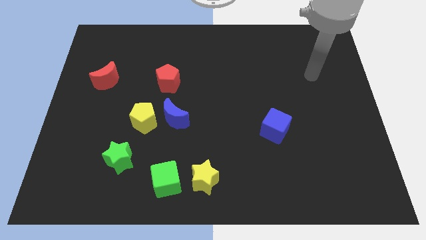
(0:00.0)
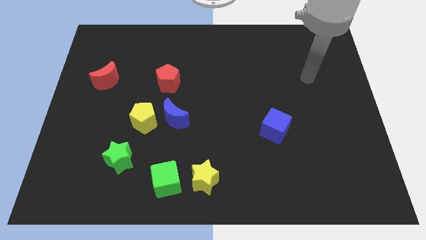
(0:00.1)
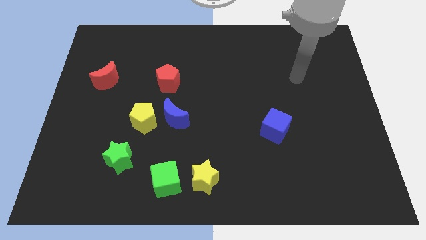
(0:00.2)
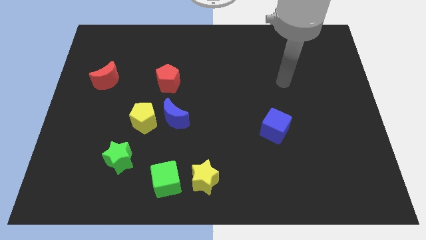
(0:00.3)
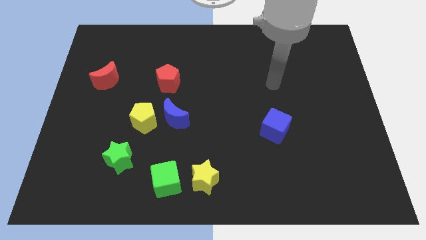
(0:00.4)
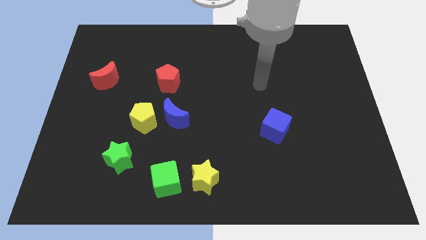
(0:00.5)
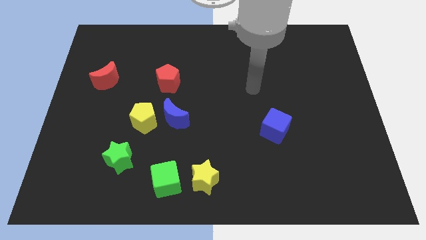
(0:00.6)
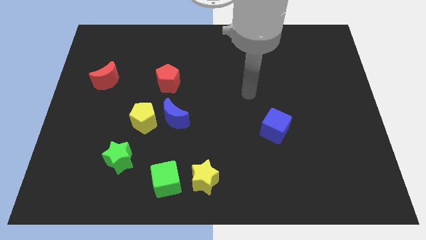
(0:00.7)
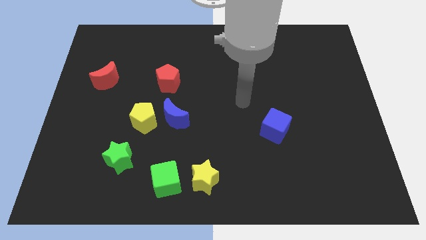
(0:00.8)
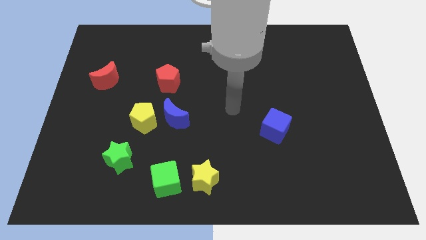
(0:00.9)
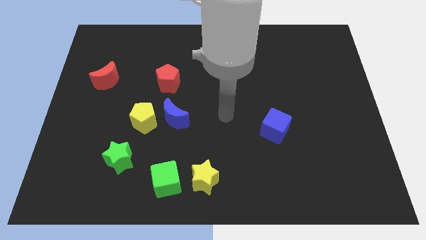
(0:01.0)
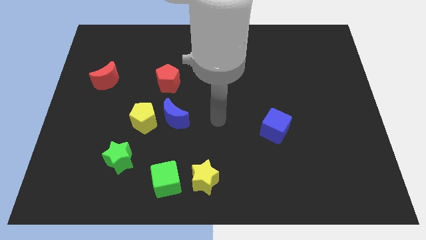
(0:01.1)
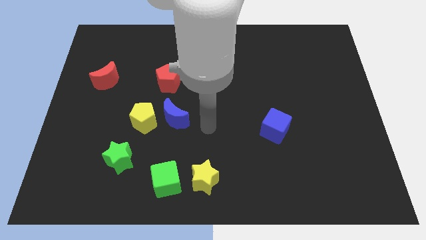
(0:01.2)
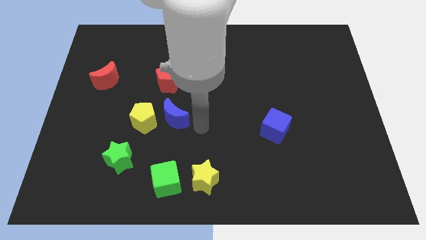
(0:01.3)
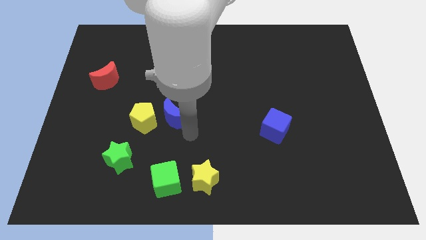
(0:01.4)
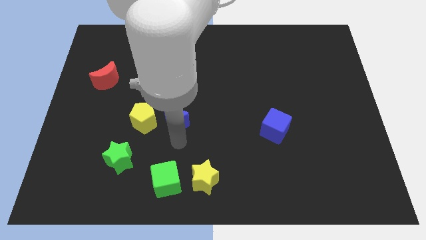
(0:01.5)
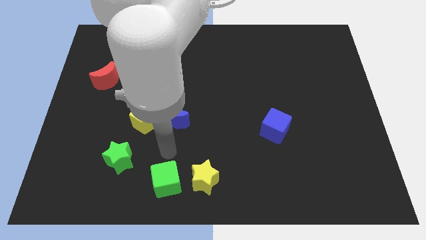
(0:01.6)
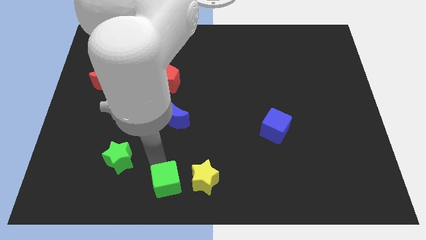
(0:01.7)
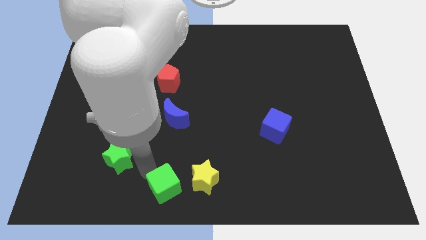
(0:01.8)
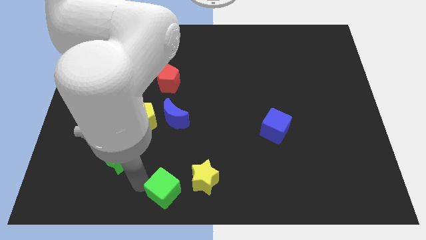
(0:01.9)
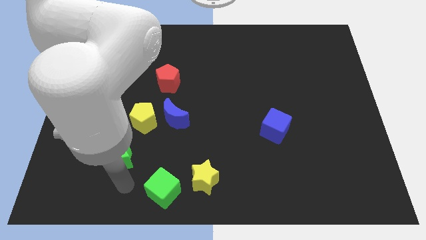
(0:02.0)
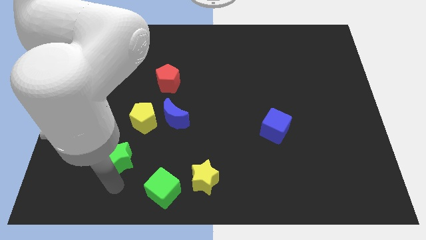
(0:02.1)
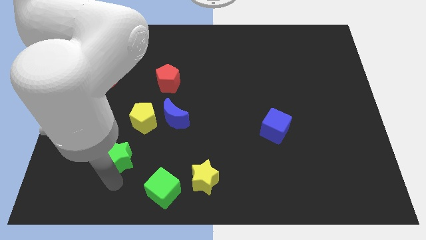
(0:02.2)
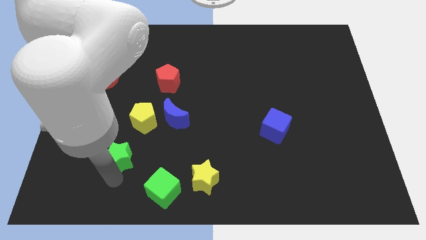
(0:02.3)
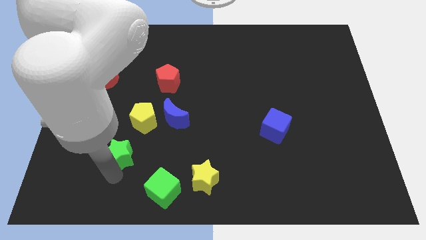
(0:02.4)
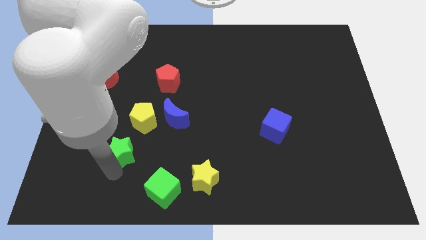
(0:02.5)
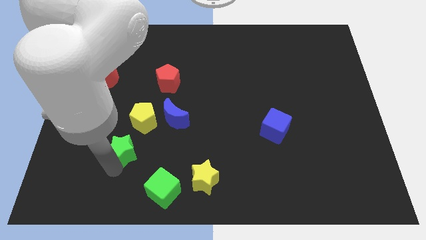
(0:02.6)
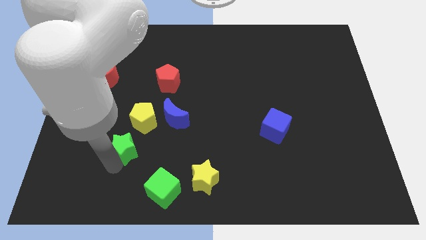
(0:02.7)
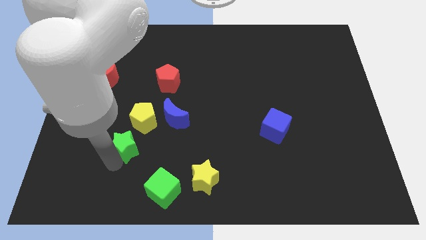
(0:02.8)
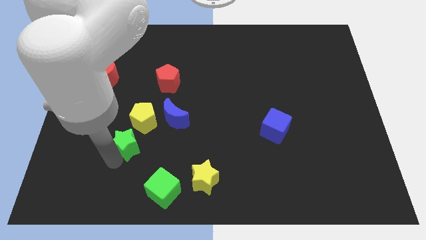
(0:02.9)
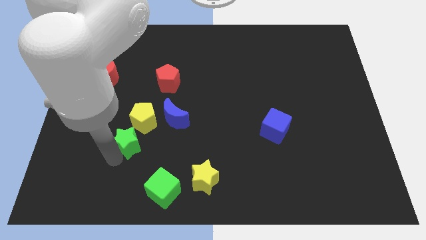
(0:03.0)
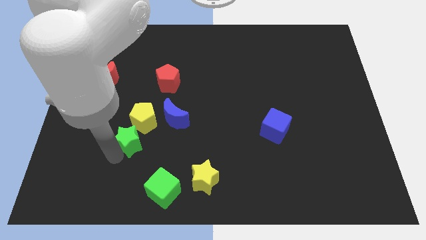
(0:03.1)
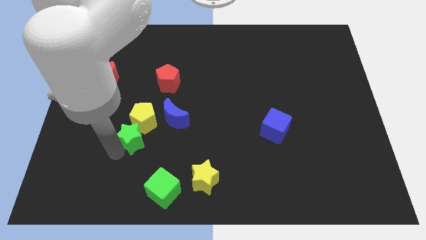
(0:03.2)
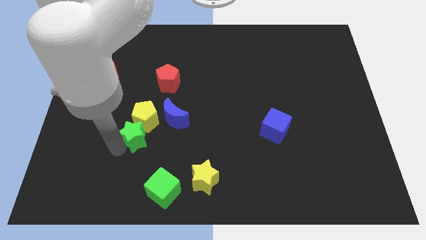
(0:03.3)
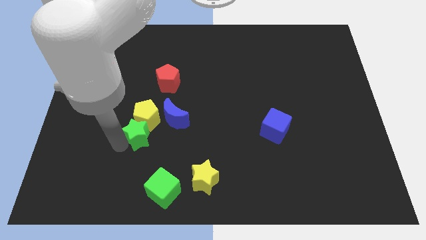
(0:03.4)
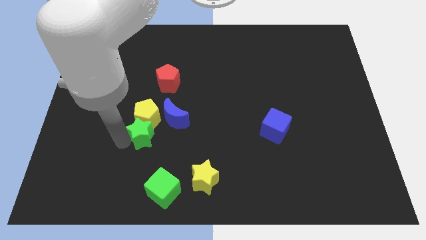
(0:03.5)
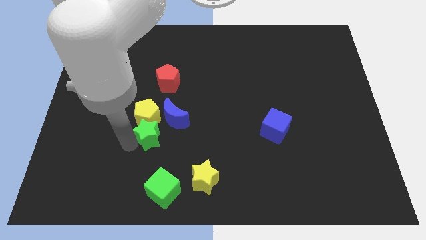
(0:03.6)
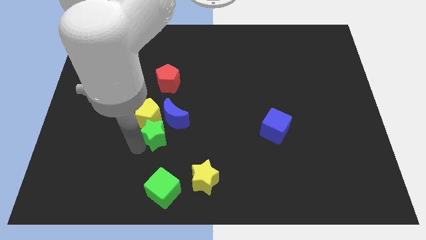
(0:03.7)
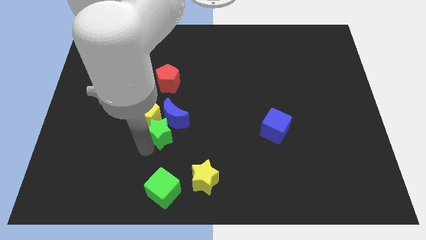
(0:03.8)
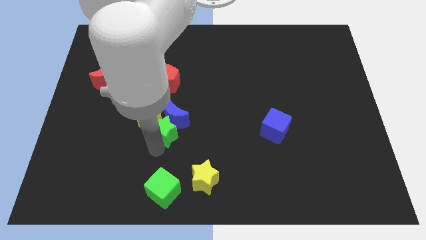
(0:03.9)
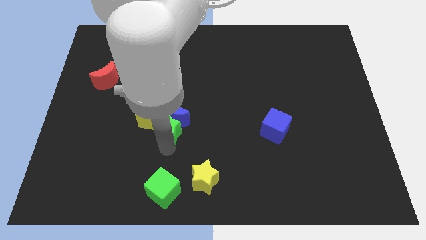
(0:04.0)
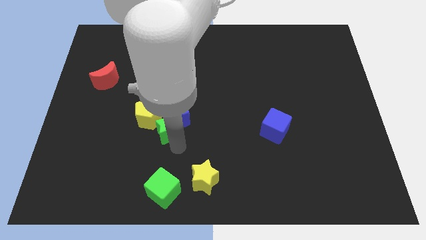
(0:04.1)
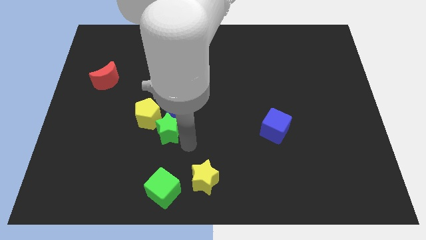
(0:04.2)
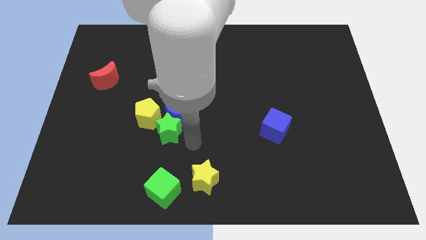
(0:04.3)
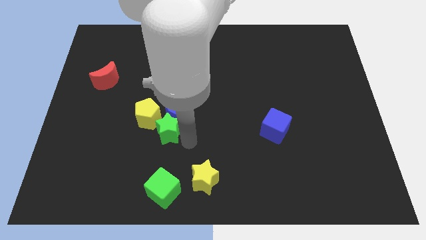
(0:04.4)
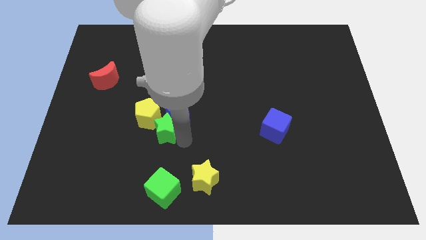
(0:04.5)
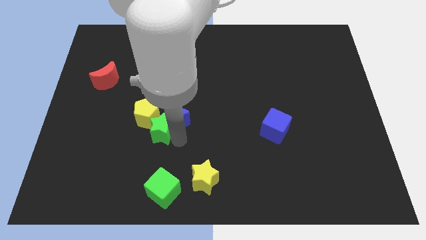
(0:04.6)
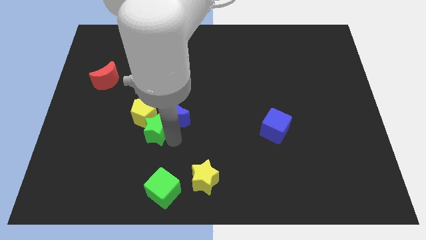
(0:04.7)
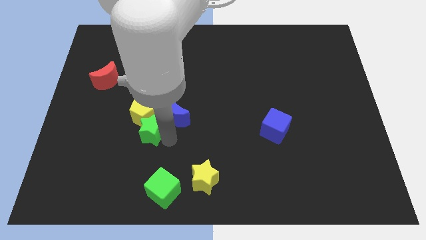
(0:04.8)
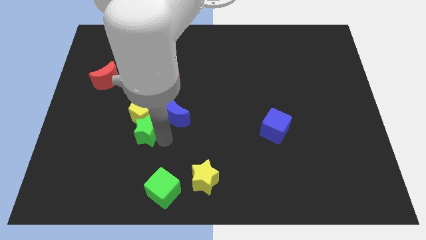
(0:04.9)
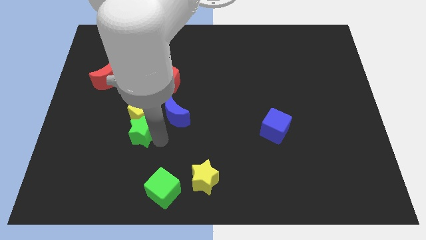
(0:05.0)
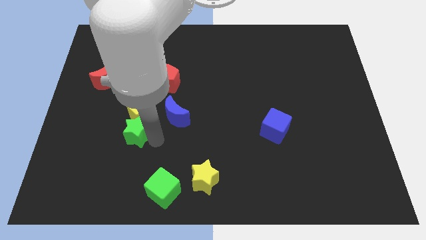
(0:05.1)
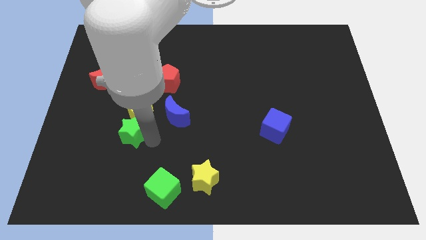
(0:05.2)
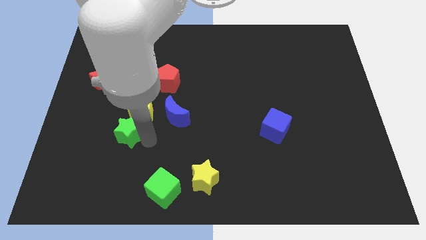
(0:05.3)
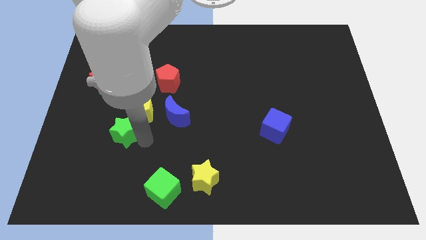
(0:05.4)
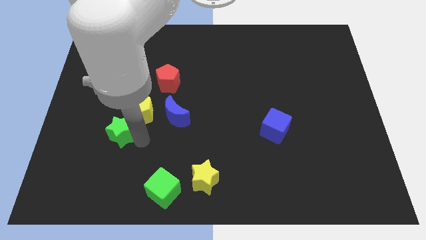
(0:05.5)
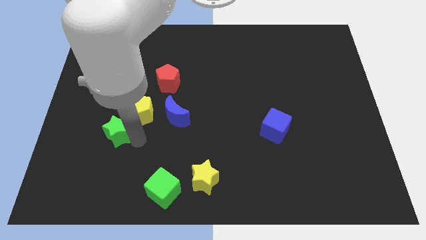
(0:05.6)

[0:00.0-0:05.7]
slightly push the green star upwards

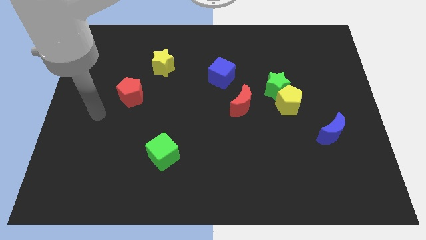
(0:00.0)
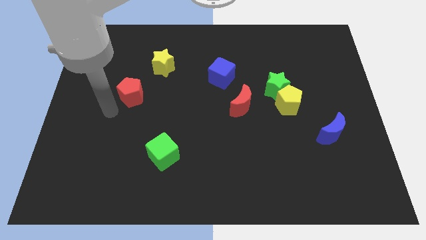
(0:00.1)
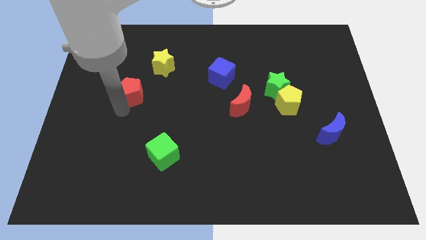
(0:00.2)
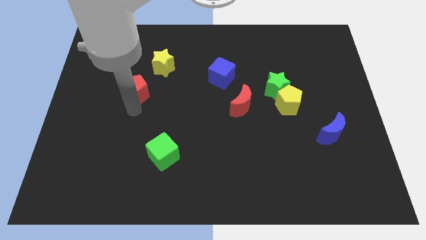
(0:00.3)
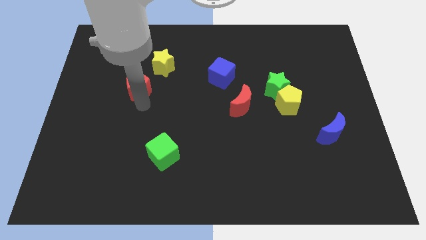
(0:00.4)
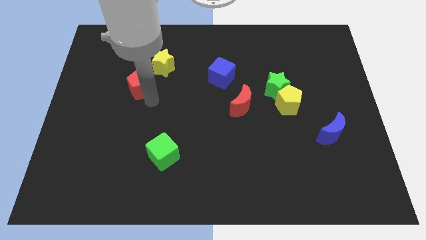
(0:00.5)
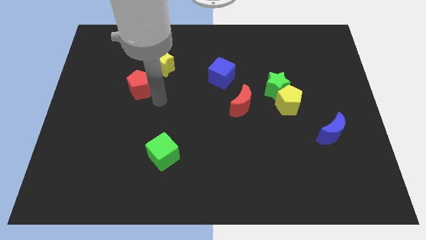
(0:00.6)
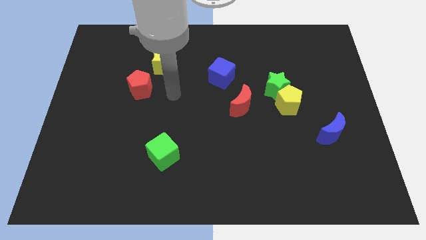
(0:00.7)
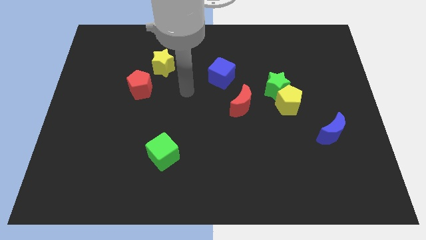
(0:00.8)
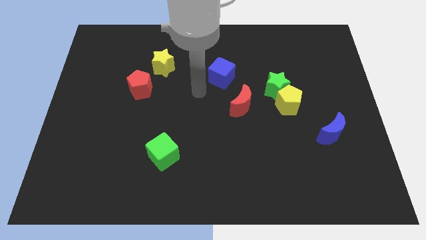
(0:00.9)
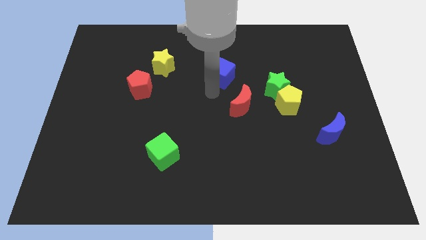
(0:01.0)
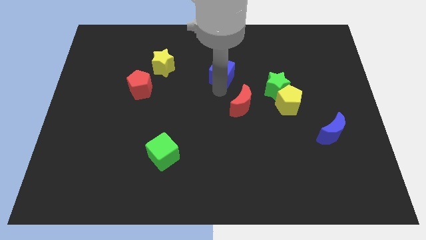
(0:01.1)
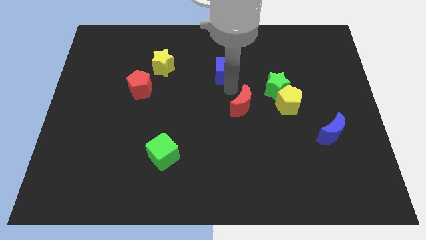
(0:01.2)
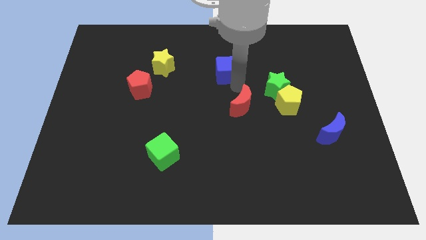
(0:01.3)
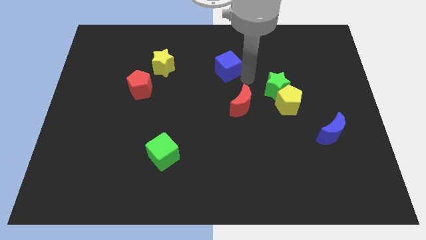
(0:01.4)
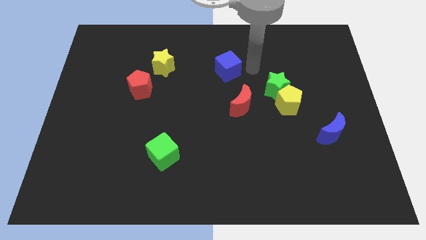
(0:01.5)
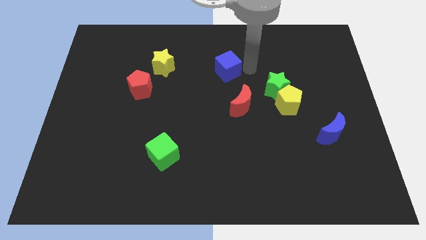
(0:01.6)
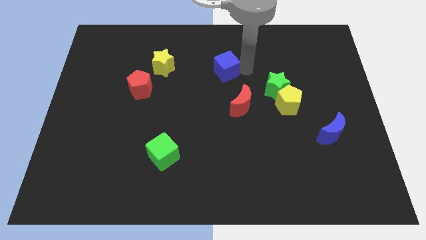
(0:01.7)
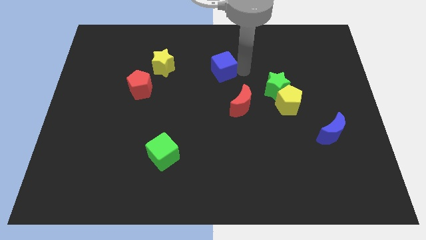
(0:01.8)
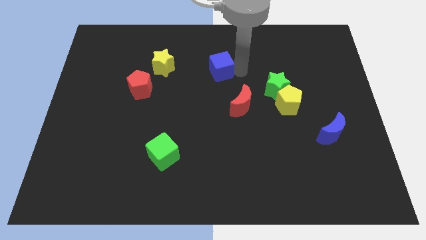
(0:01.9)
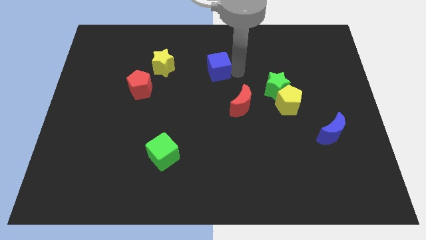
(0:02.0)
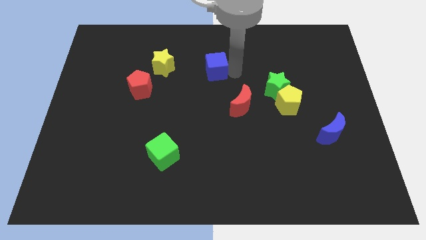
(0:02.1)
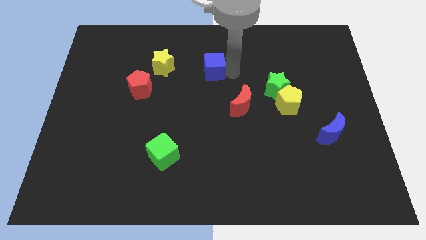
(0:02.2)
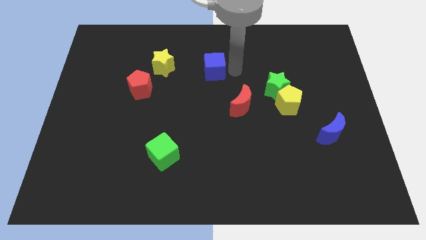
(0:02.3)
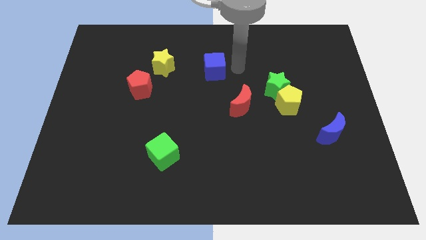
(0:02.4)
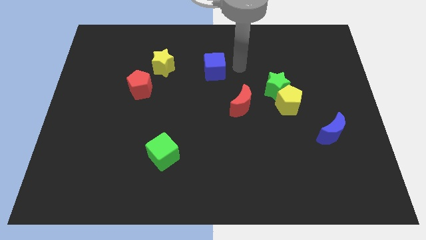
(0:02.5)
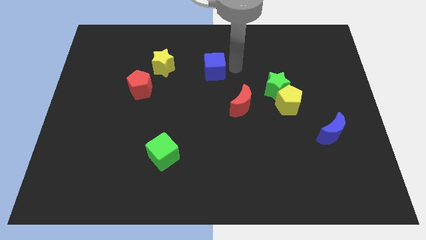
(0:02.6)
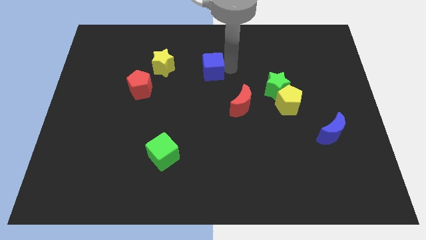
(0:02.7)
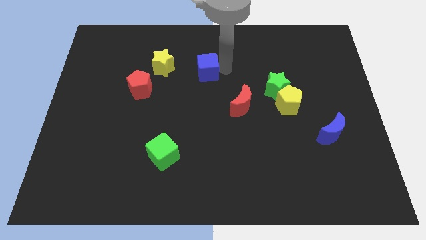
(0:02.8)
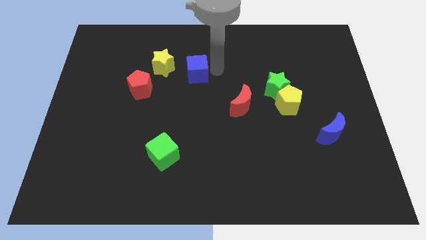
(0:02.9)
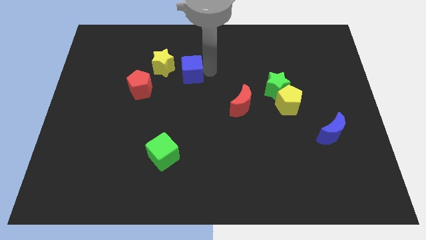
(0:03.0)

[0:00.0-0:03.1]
slightly push the blue cube left
